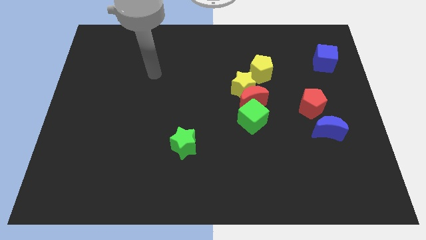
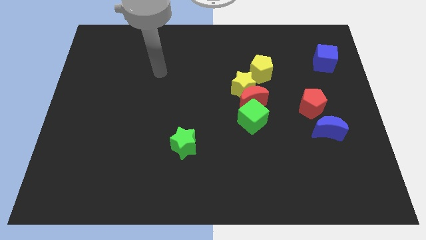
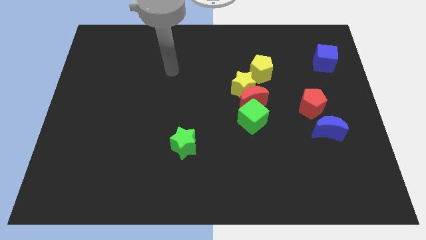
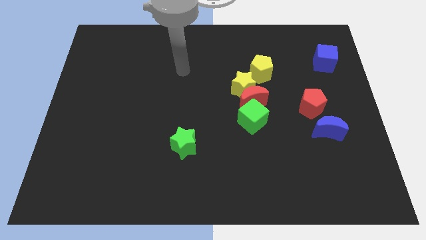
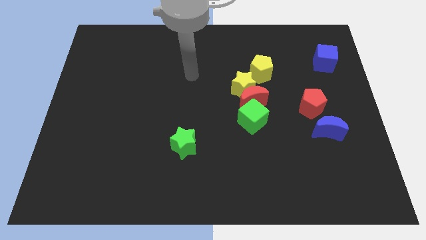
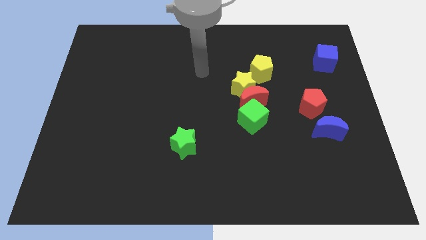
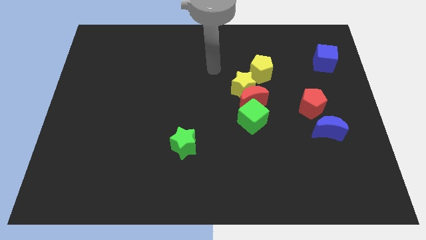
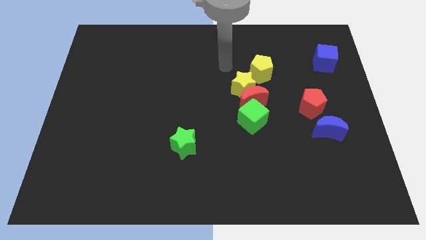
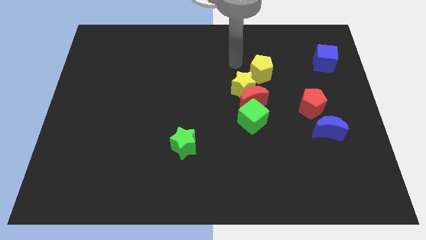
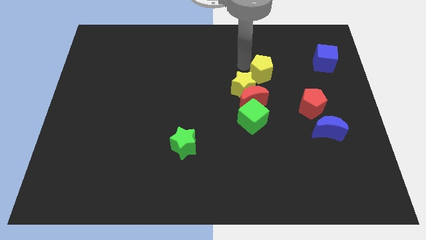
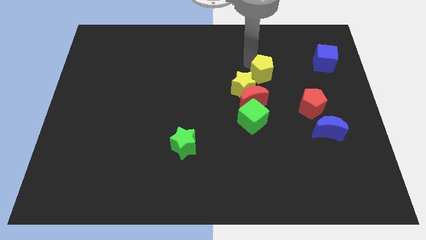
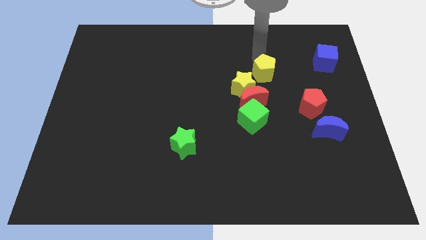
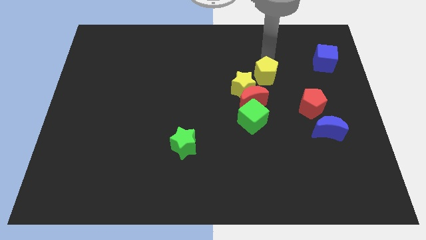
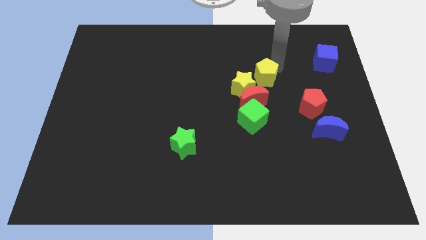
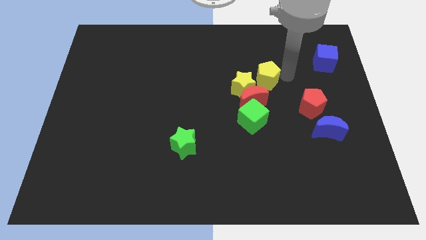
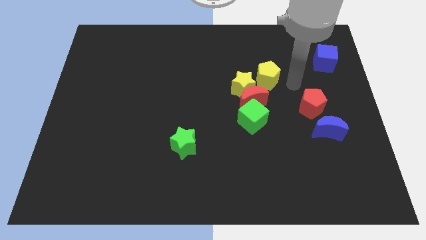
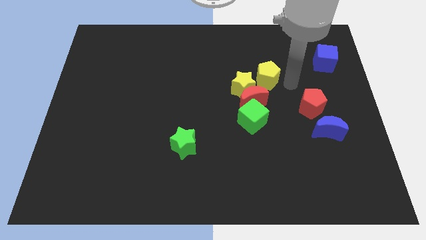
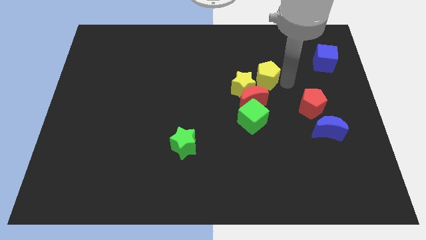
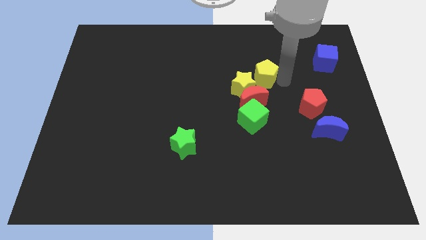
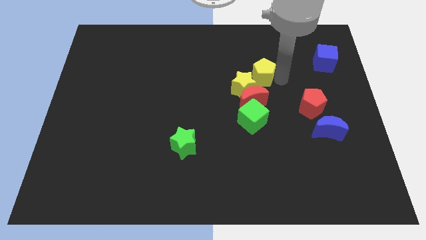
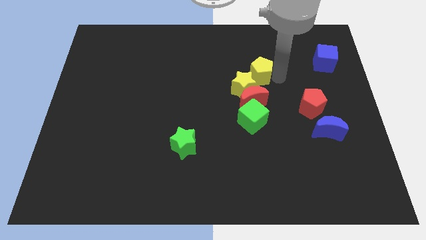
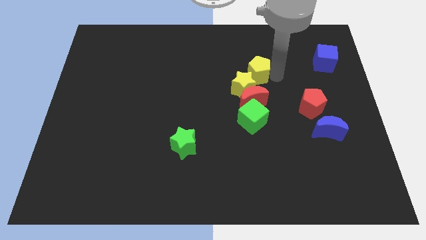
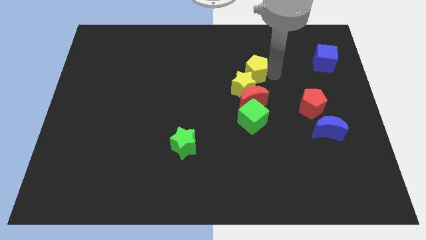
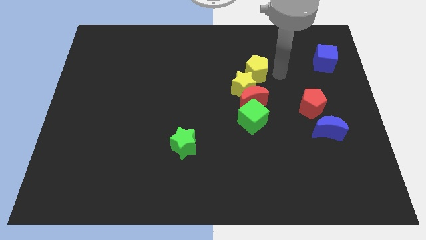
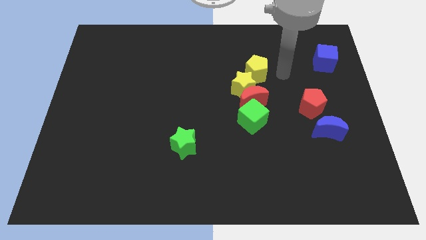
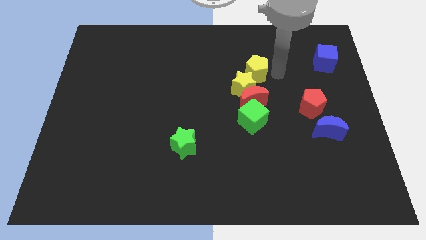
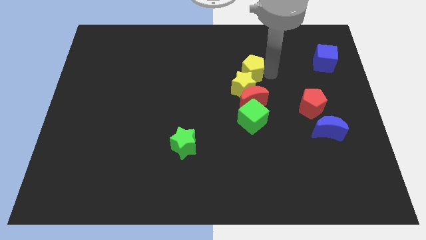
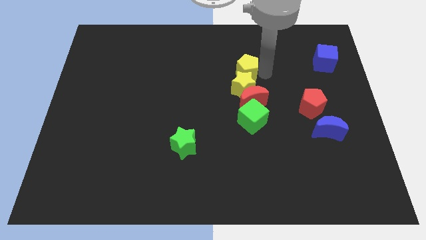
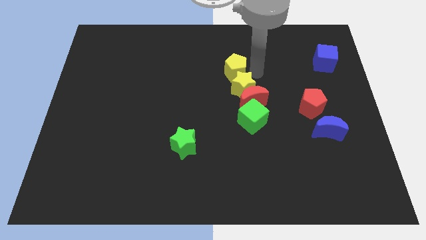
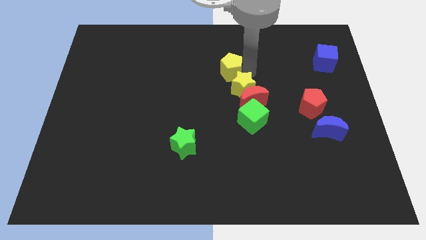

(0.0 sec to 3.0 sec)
push the yellow pentagon somewhat left

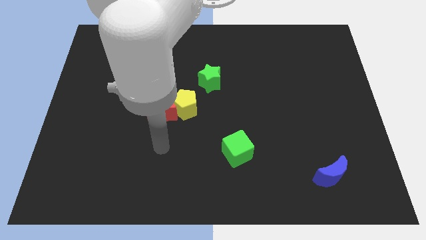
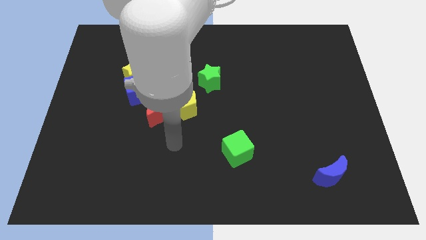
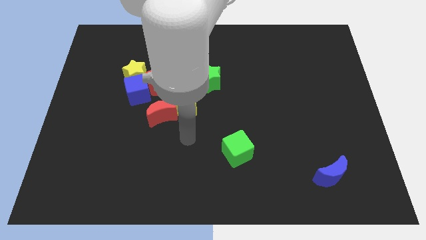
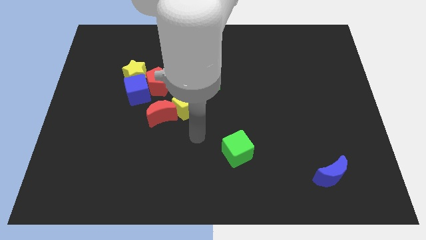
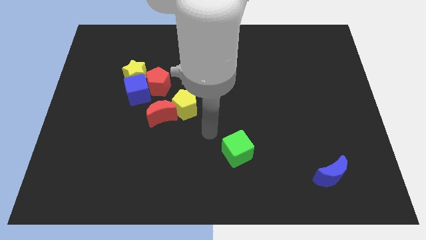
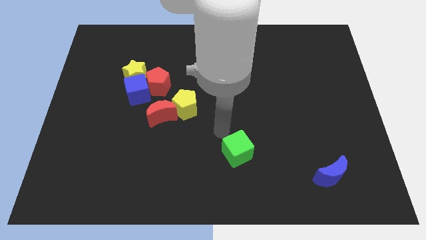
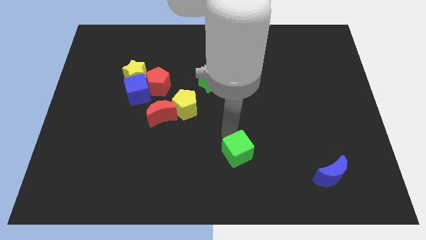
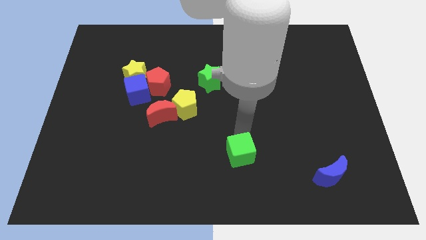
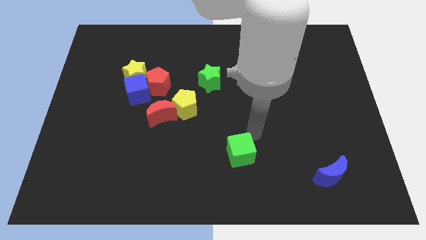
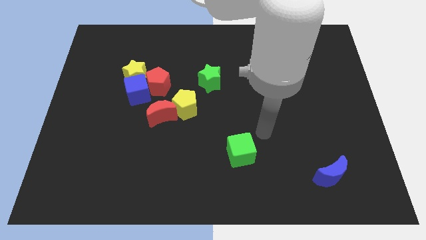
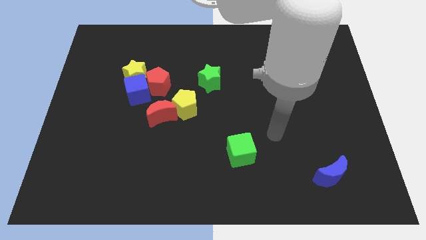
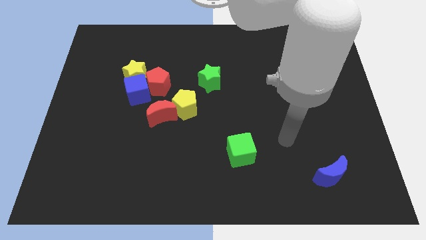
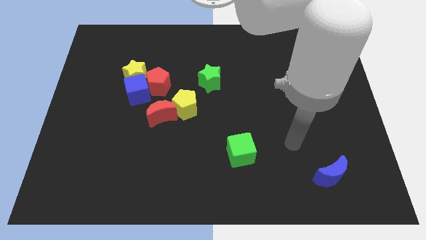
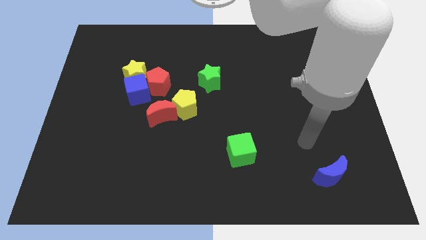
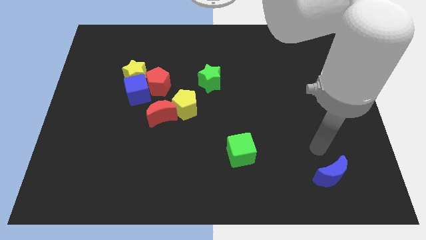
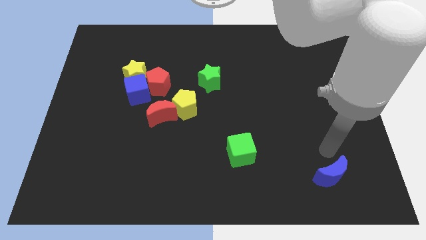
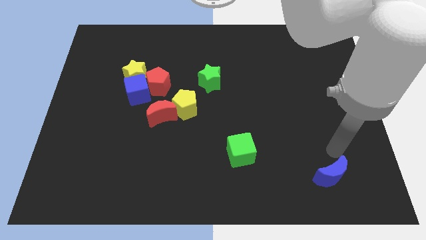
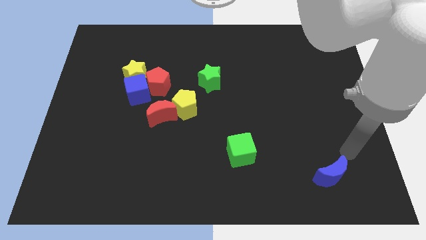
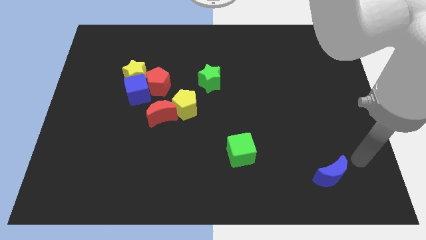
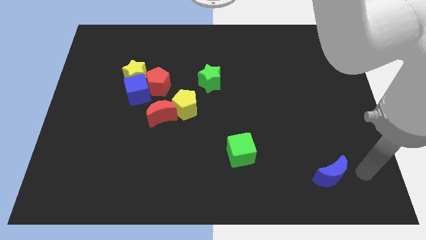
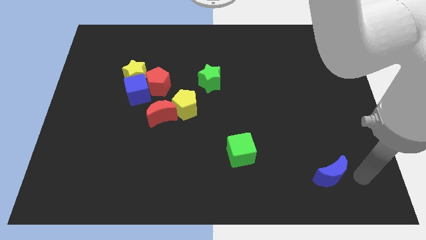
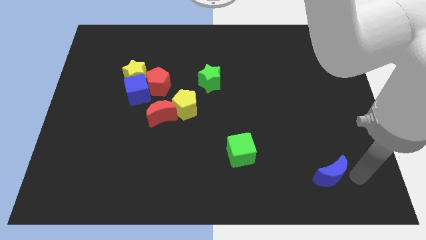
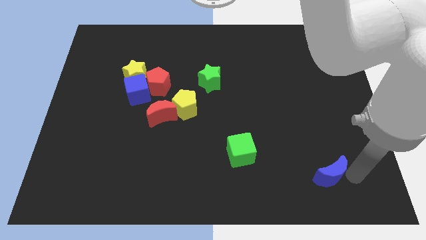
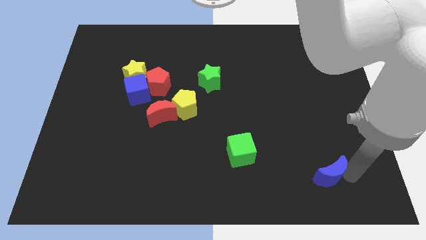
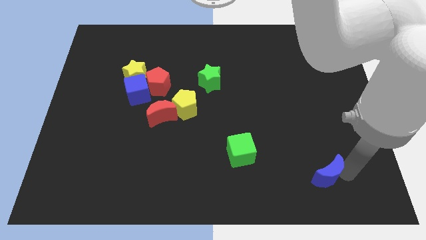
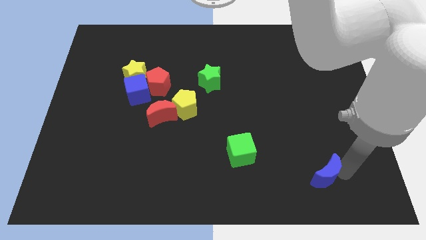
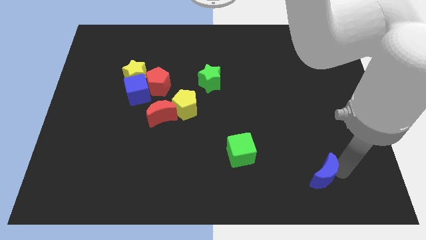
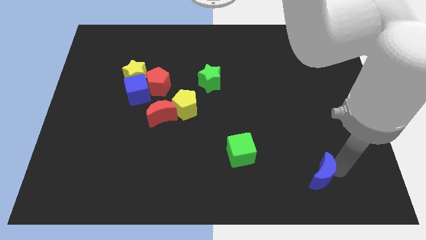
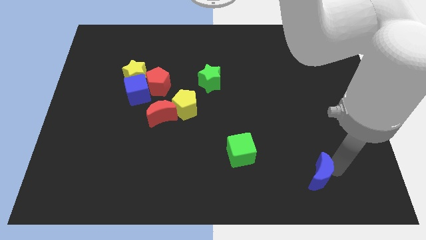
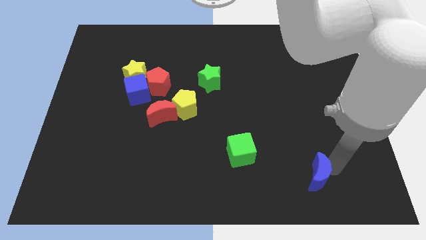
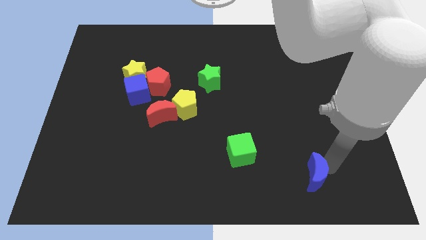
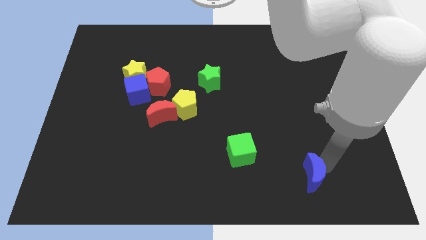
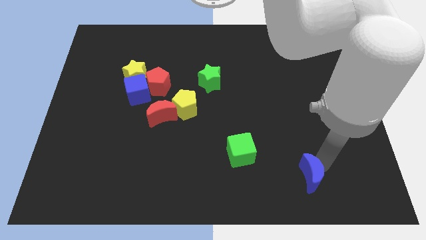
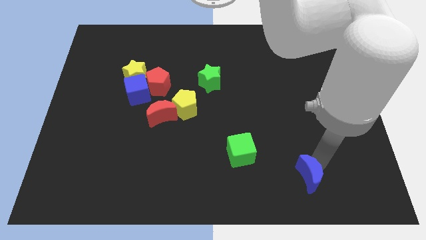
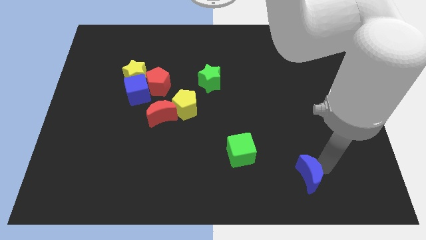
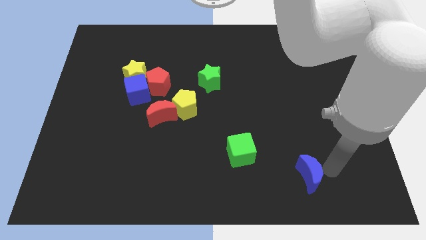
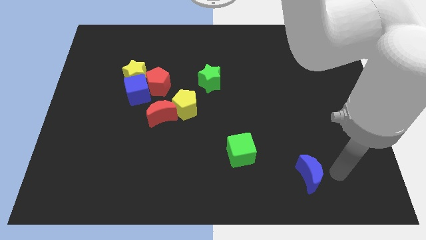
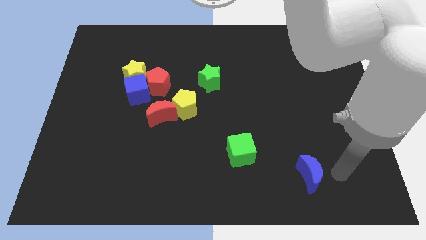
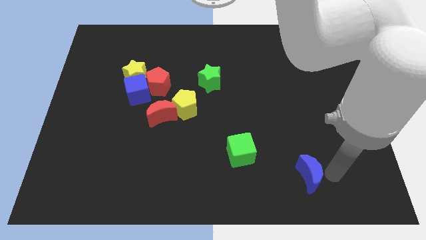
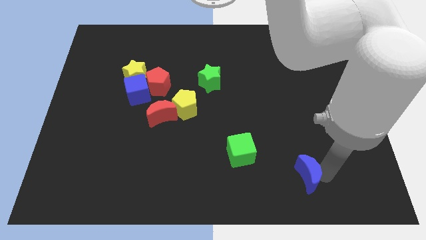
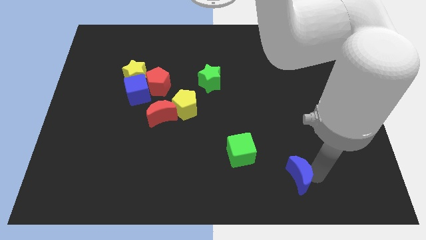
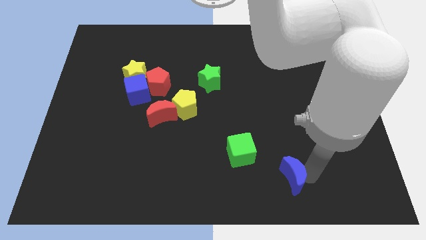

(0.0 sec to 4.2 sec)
slightly push the blue moon to the left

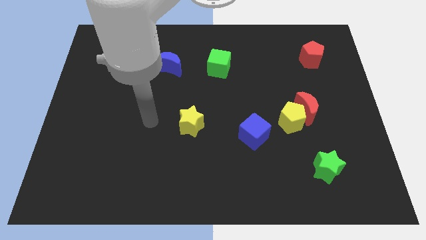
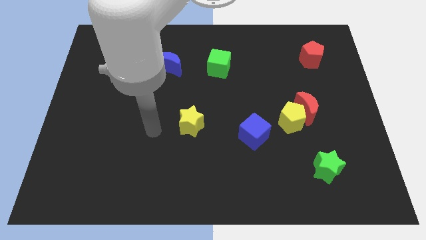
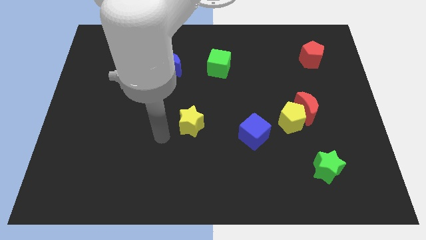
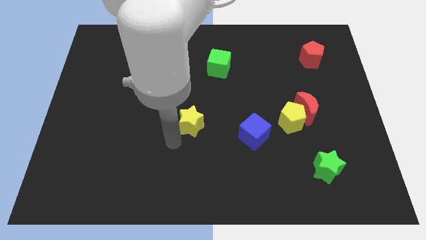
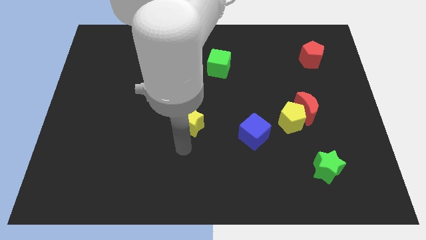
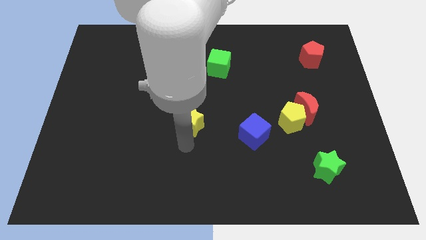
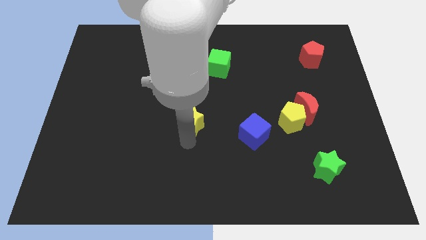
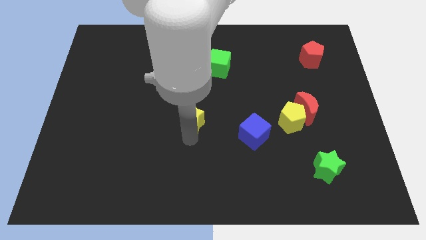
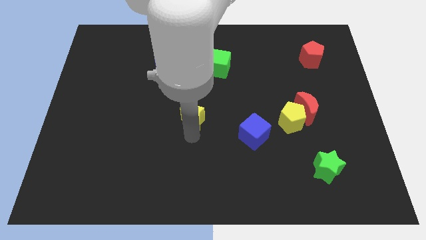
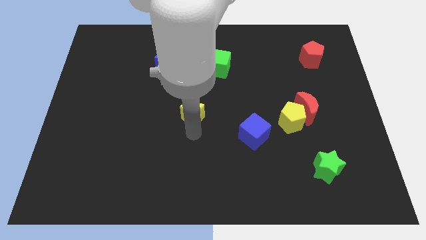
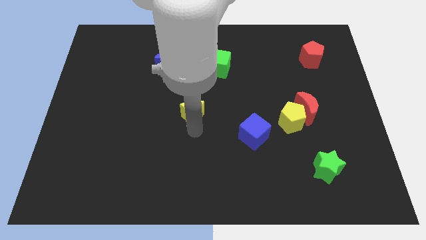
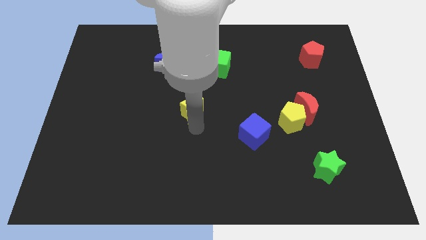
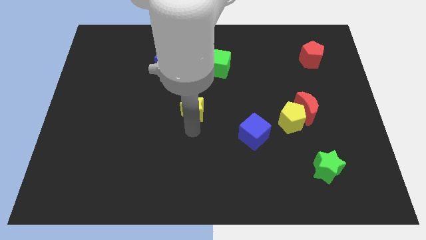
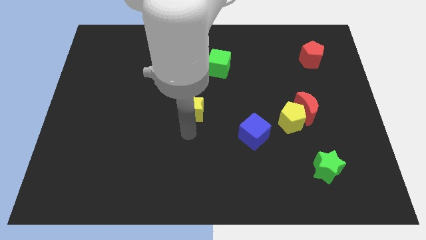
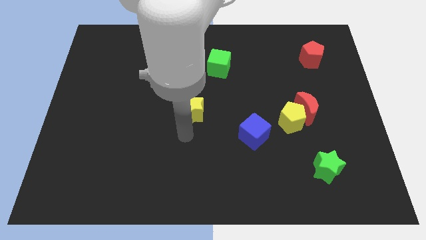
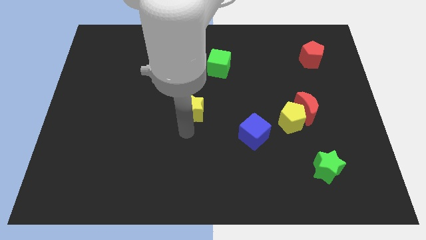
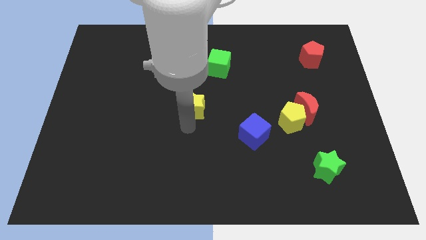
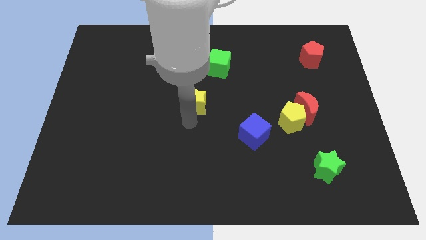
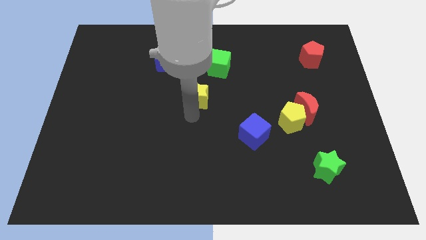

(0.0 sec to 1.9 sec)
push the yellow star somewhat upwards
